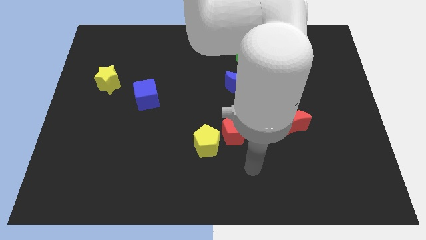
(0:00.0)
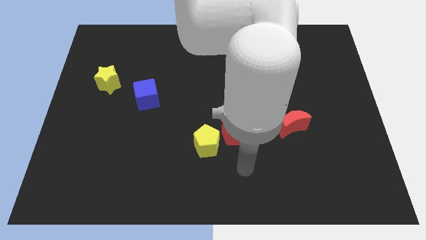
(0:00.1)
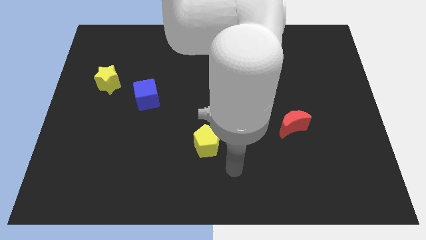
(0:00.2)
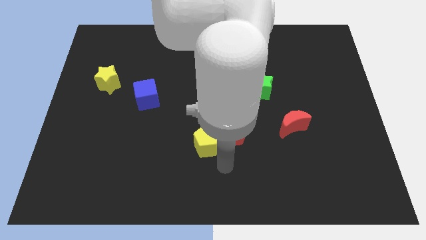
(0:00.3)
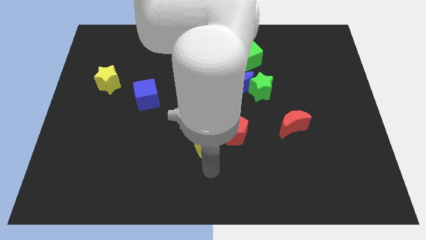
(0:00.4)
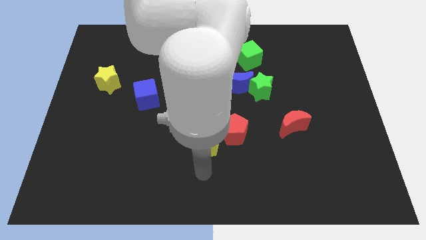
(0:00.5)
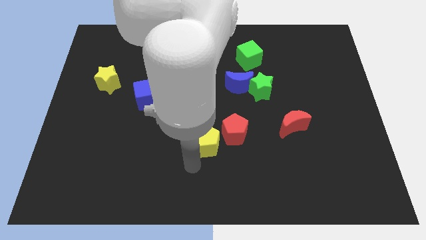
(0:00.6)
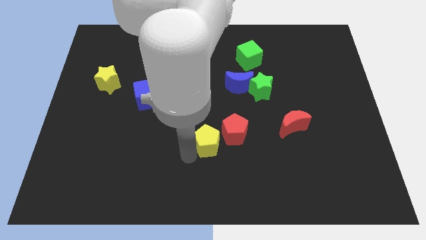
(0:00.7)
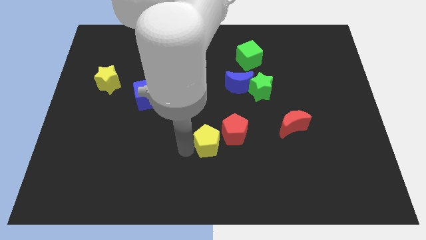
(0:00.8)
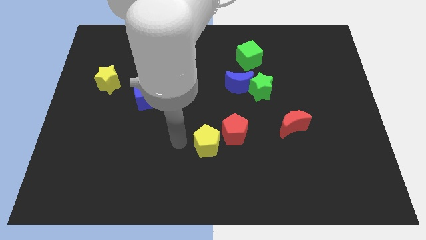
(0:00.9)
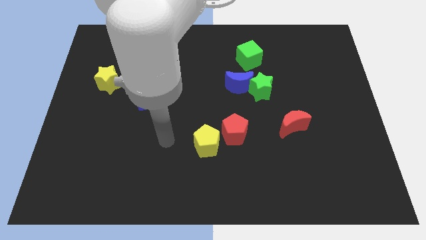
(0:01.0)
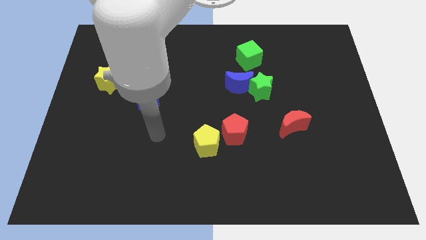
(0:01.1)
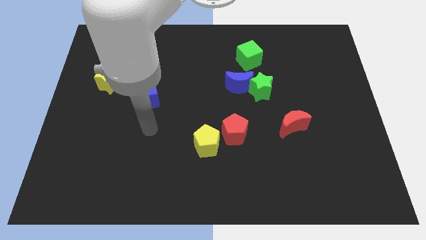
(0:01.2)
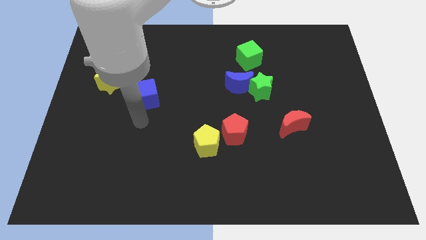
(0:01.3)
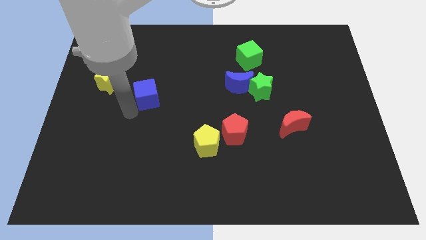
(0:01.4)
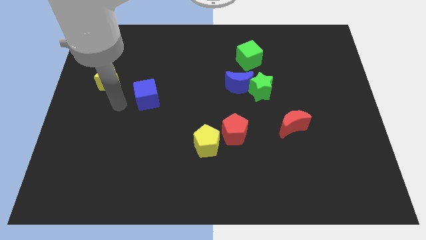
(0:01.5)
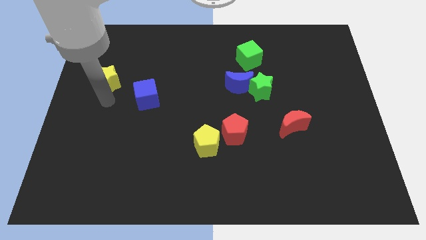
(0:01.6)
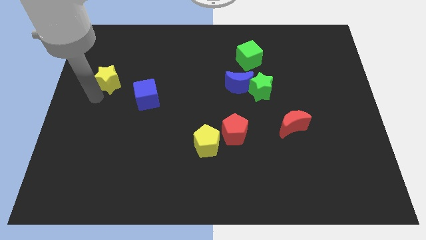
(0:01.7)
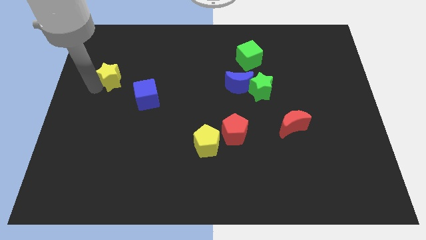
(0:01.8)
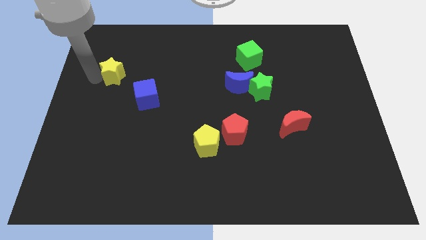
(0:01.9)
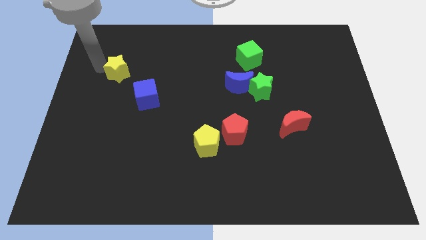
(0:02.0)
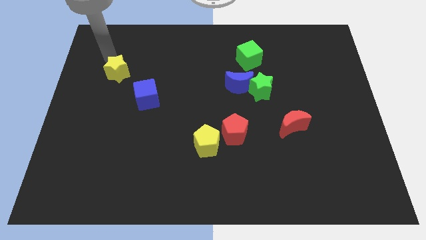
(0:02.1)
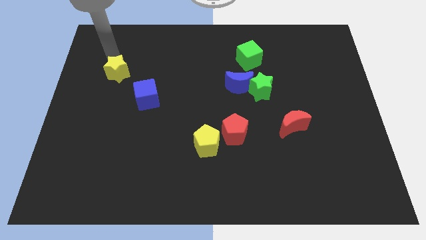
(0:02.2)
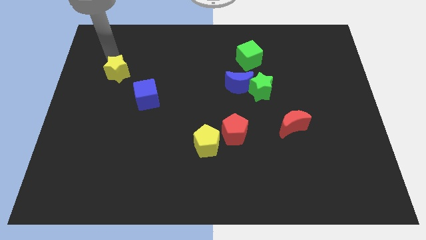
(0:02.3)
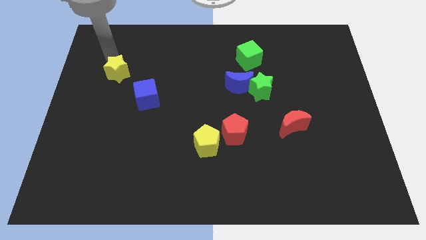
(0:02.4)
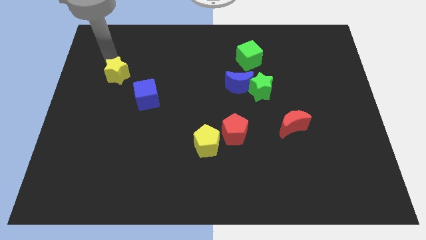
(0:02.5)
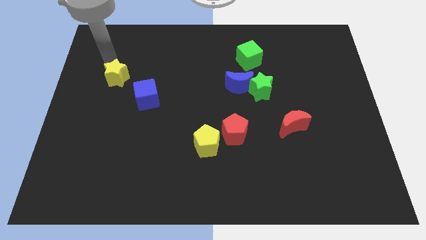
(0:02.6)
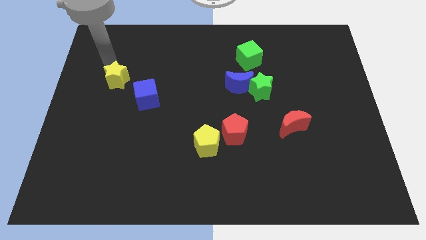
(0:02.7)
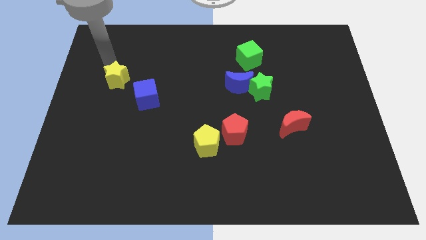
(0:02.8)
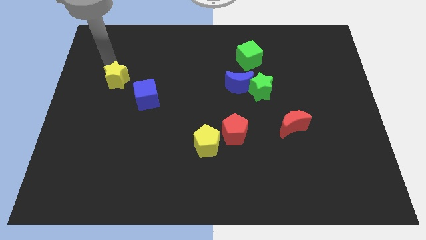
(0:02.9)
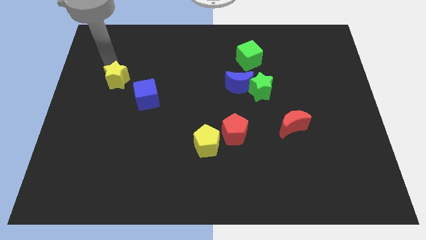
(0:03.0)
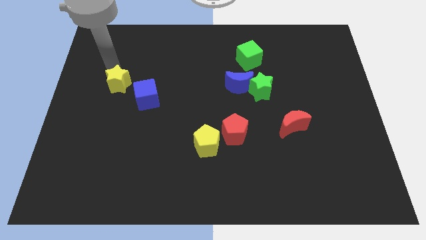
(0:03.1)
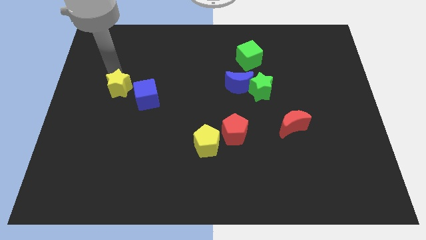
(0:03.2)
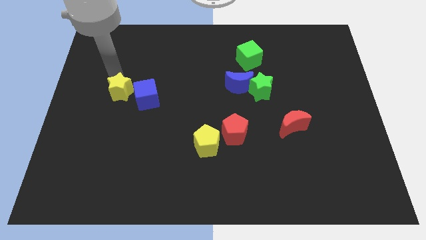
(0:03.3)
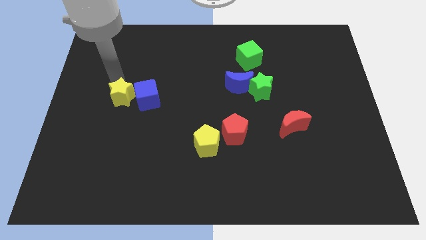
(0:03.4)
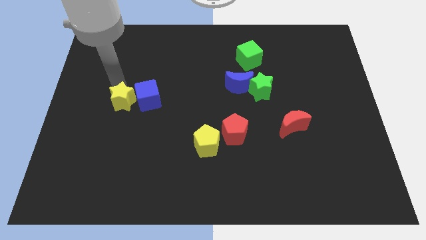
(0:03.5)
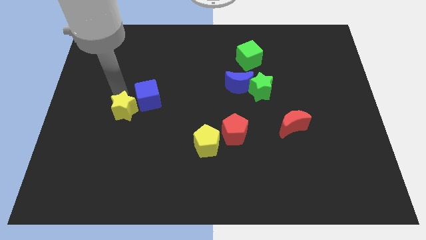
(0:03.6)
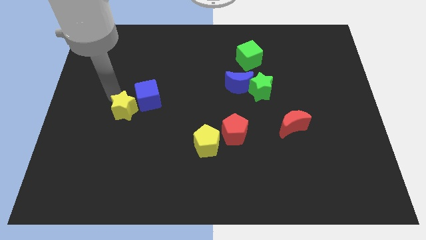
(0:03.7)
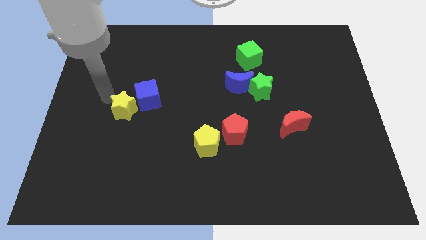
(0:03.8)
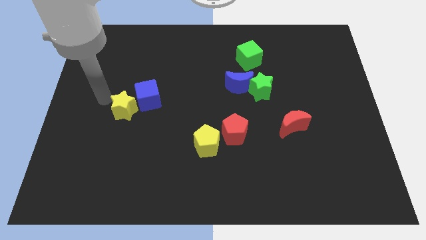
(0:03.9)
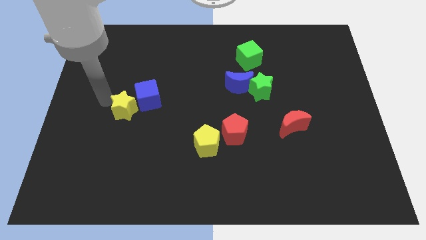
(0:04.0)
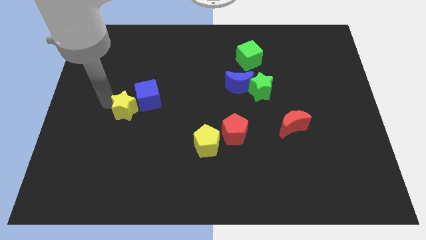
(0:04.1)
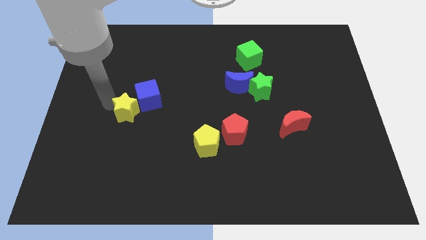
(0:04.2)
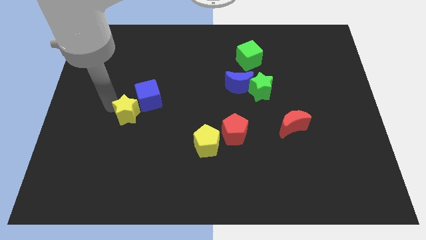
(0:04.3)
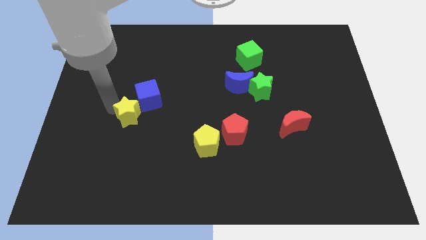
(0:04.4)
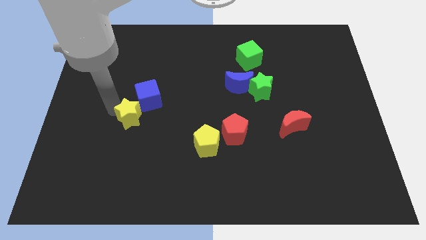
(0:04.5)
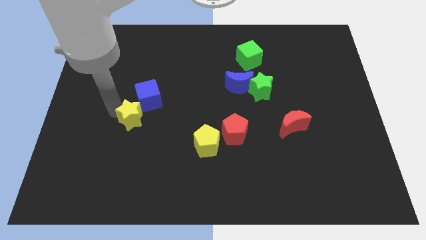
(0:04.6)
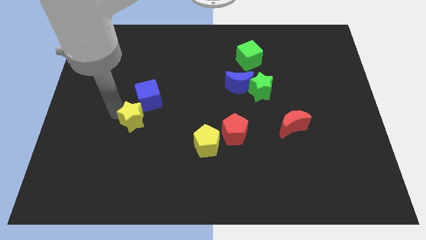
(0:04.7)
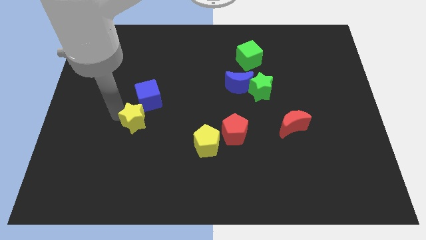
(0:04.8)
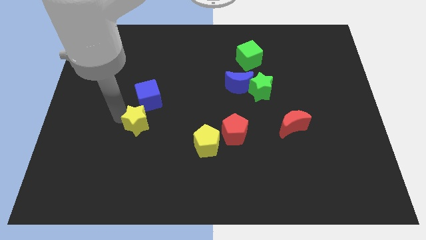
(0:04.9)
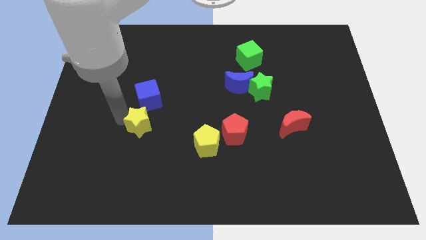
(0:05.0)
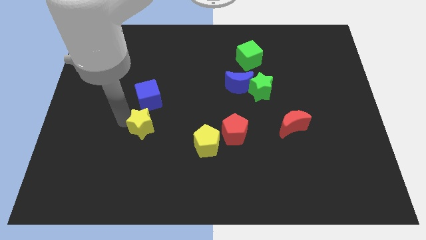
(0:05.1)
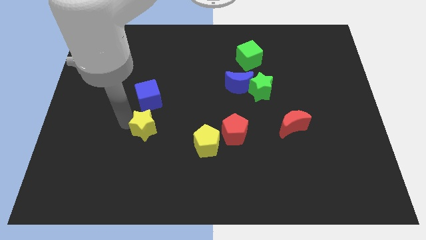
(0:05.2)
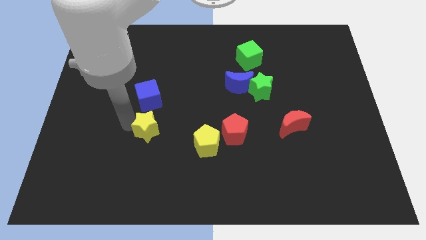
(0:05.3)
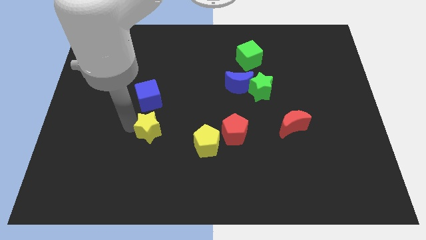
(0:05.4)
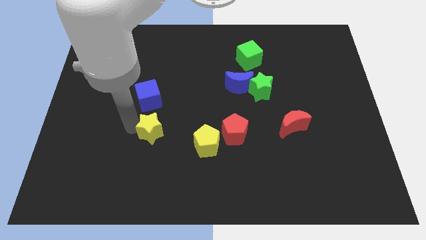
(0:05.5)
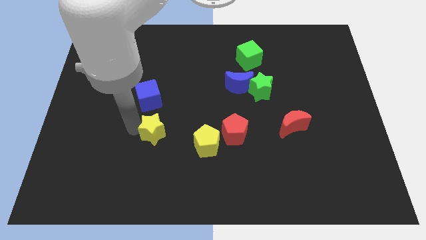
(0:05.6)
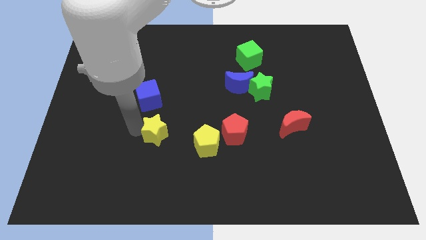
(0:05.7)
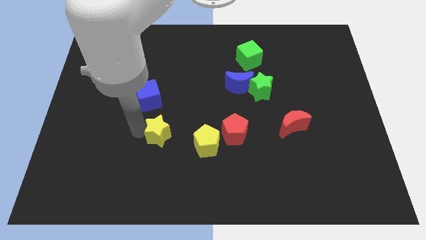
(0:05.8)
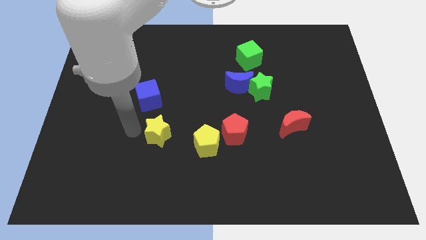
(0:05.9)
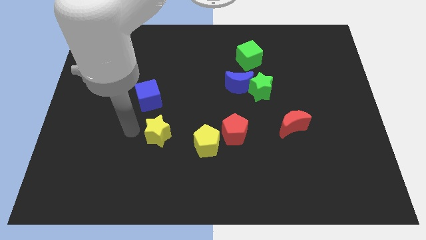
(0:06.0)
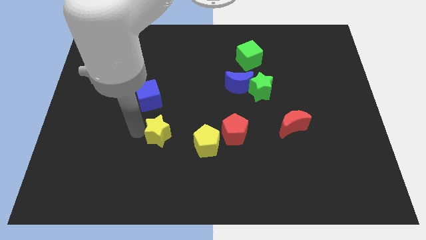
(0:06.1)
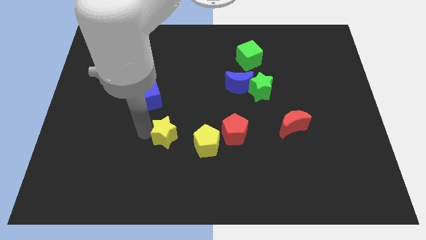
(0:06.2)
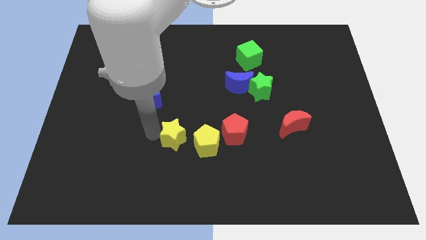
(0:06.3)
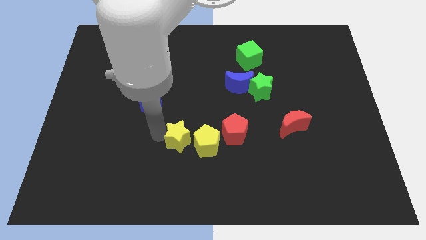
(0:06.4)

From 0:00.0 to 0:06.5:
put the yellow star close to the yellow pentagon

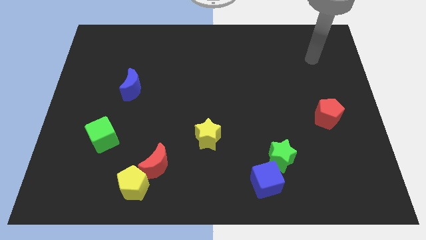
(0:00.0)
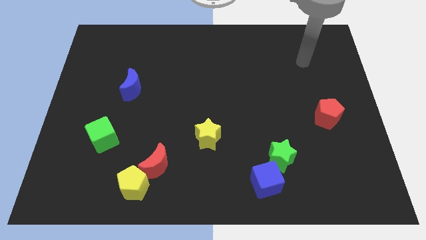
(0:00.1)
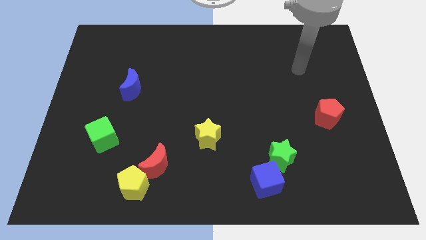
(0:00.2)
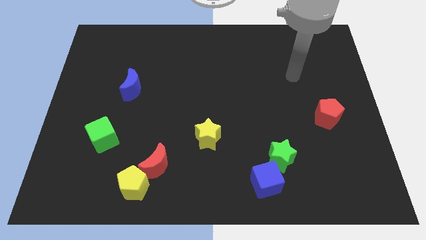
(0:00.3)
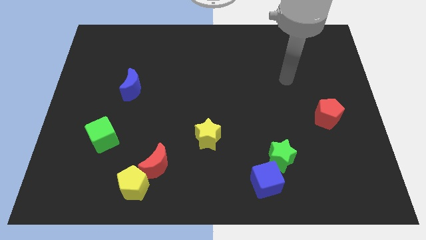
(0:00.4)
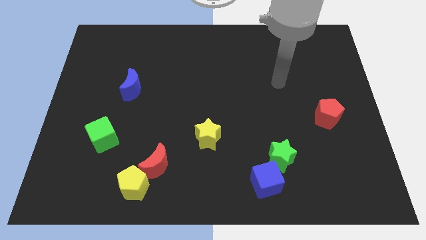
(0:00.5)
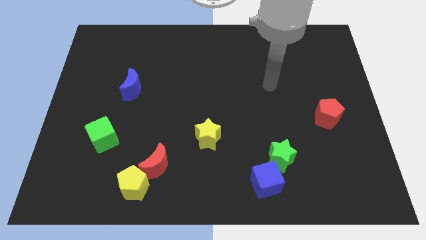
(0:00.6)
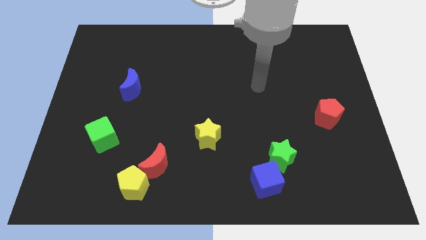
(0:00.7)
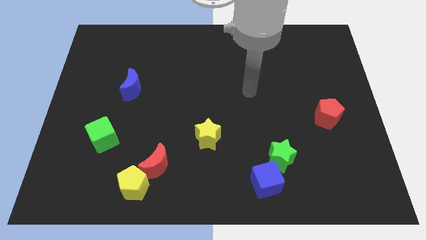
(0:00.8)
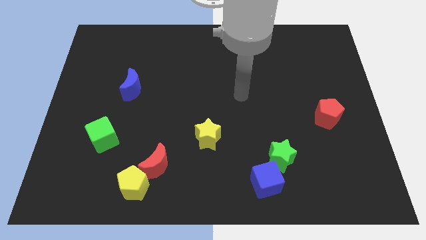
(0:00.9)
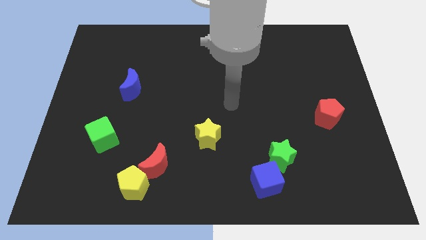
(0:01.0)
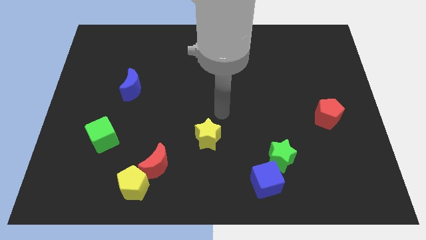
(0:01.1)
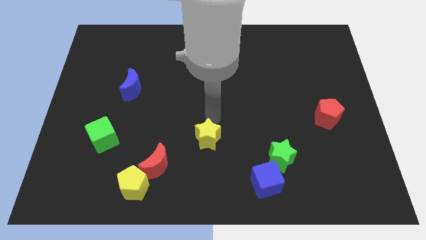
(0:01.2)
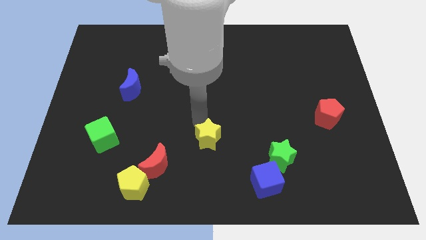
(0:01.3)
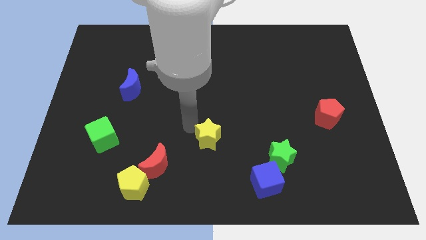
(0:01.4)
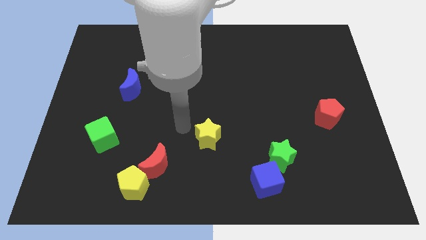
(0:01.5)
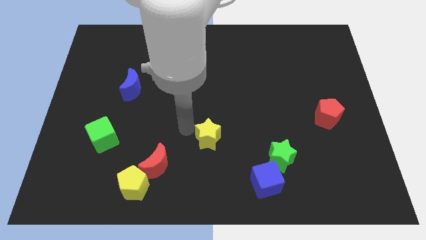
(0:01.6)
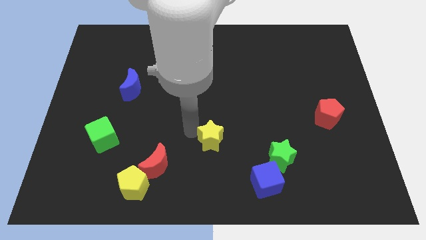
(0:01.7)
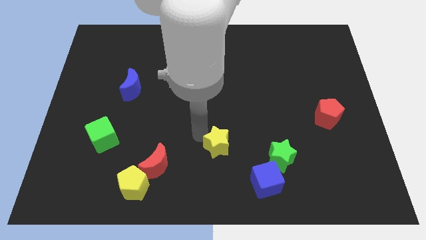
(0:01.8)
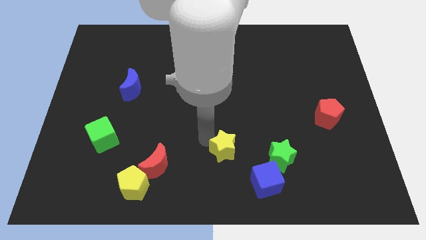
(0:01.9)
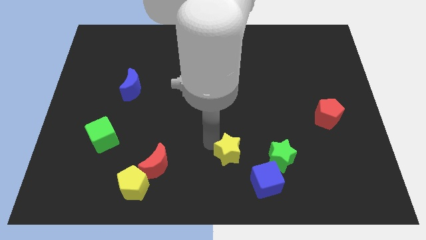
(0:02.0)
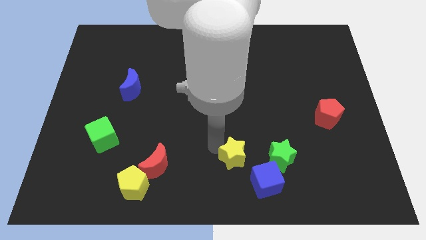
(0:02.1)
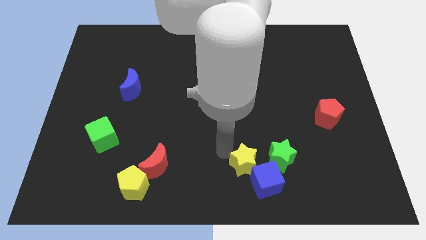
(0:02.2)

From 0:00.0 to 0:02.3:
put the yellow star to the blue cube
